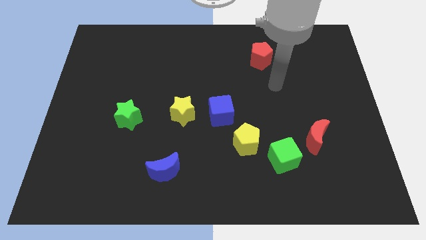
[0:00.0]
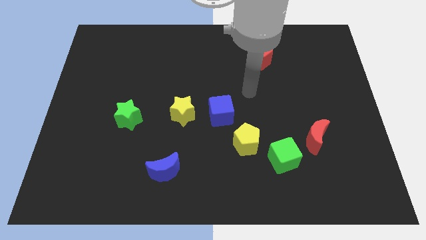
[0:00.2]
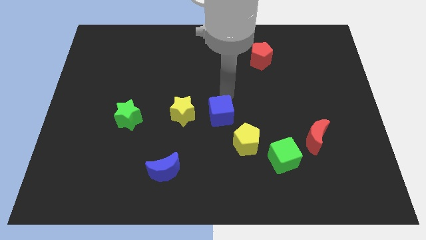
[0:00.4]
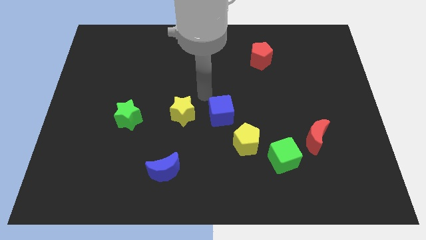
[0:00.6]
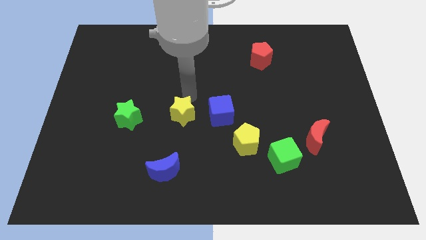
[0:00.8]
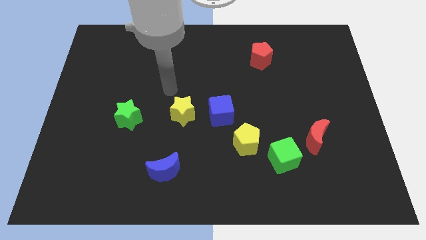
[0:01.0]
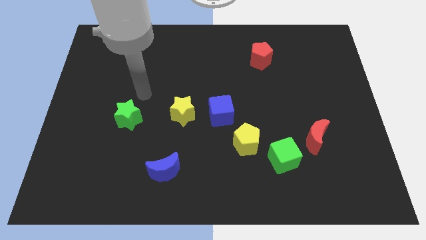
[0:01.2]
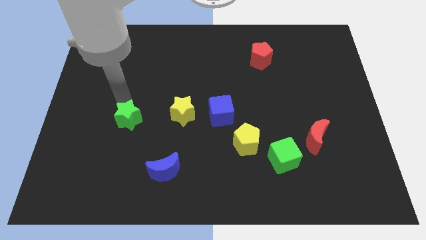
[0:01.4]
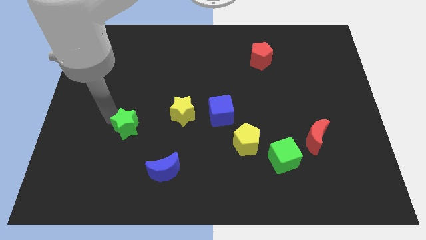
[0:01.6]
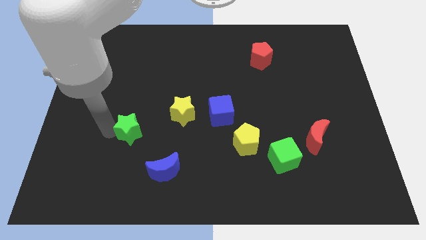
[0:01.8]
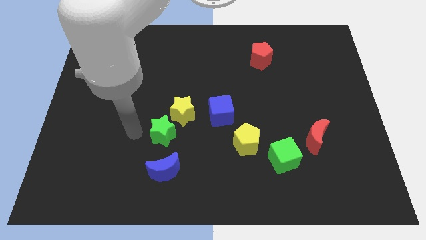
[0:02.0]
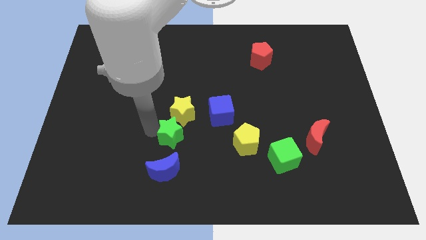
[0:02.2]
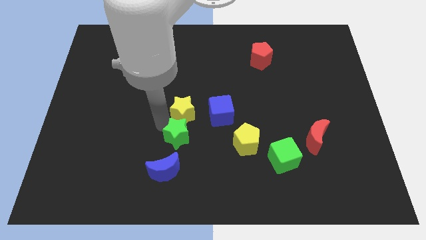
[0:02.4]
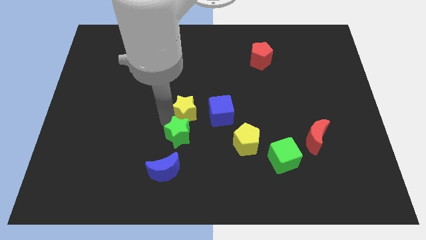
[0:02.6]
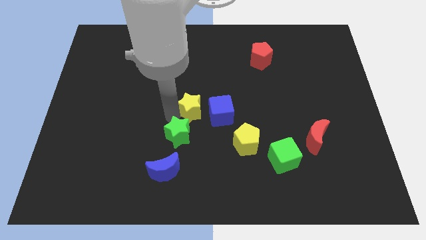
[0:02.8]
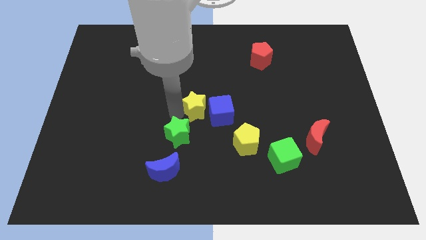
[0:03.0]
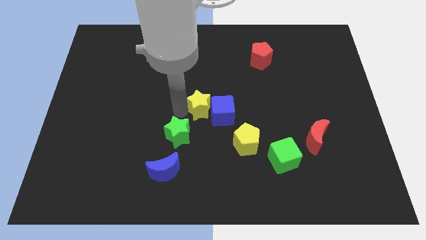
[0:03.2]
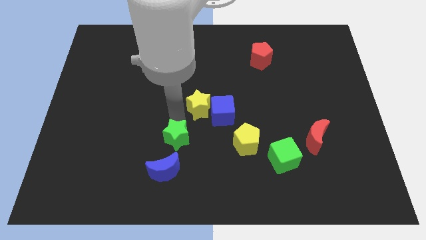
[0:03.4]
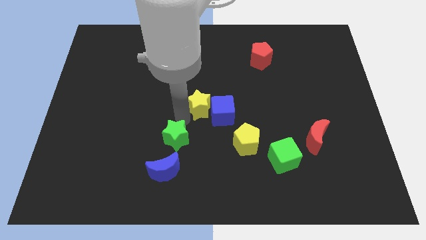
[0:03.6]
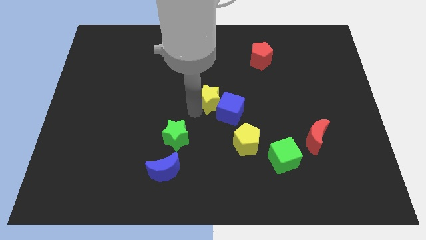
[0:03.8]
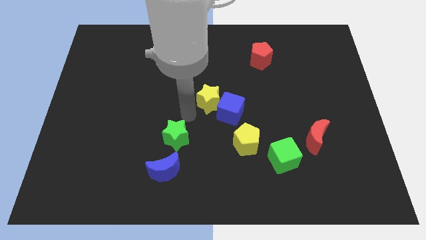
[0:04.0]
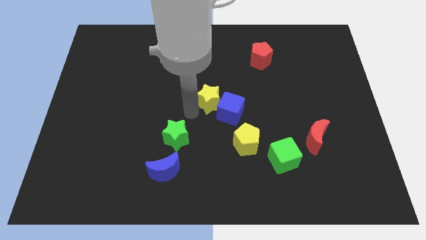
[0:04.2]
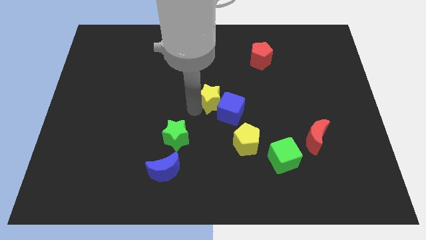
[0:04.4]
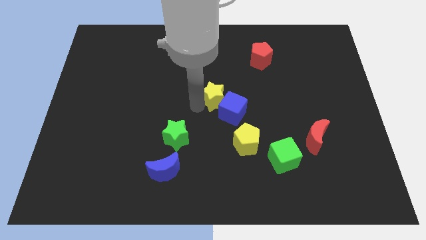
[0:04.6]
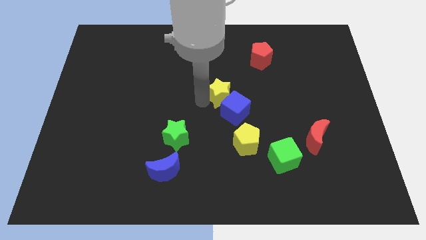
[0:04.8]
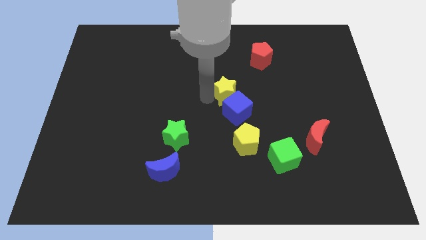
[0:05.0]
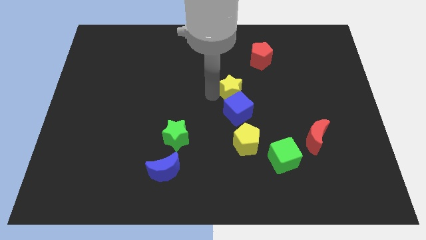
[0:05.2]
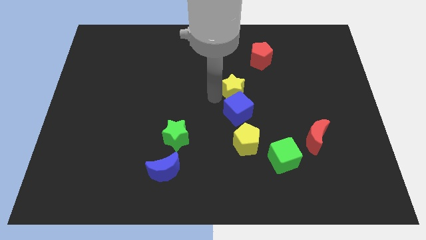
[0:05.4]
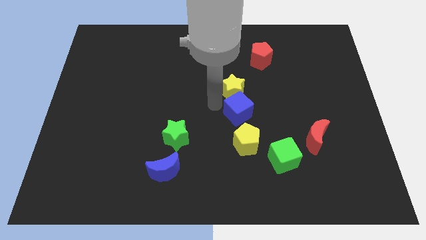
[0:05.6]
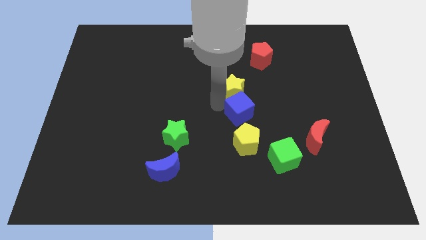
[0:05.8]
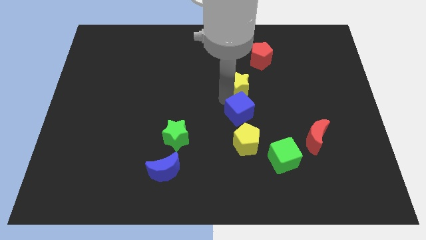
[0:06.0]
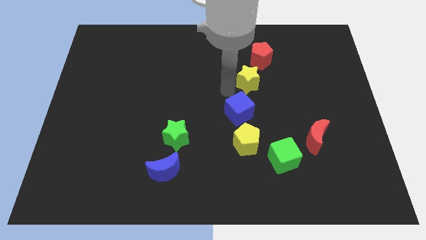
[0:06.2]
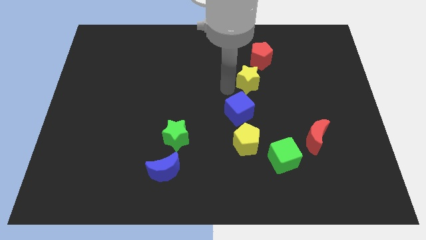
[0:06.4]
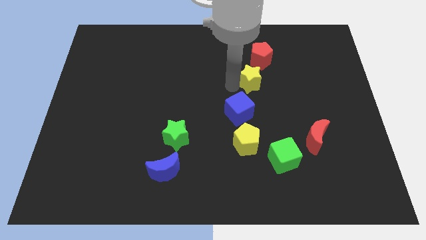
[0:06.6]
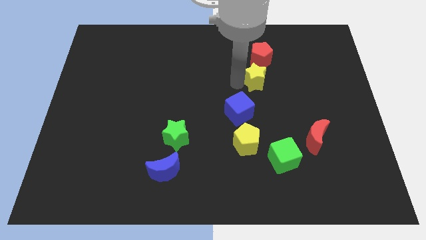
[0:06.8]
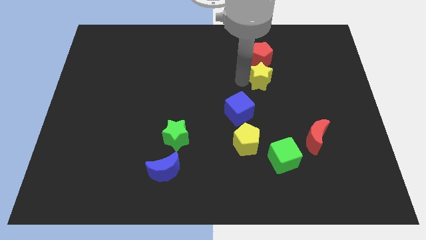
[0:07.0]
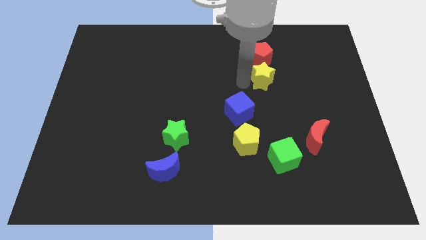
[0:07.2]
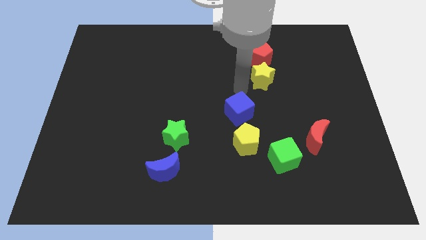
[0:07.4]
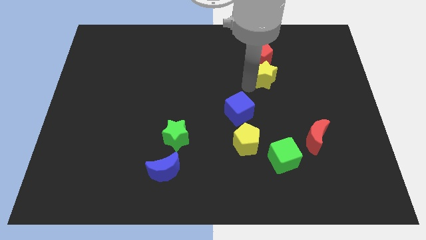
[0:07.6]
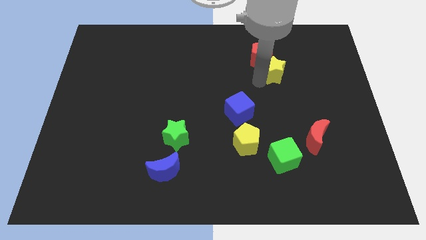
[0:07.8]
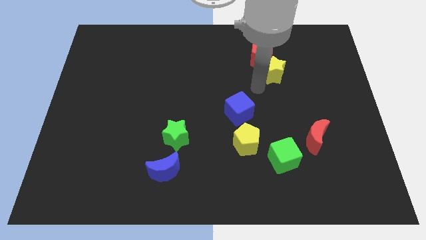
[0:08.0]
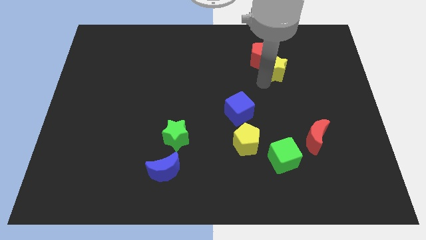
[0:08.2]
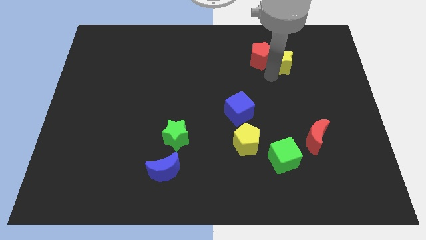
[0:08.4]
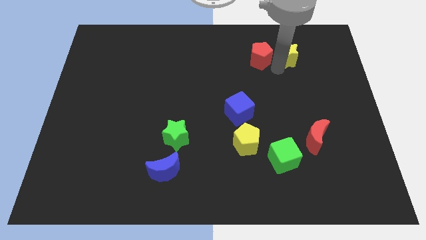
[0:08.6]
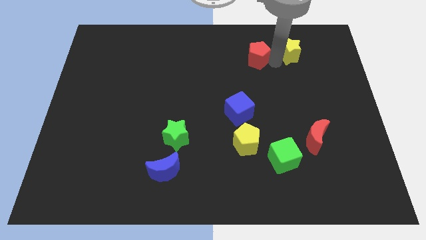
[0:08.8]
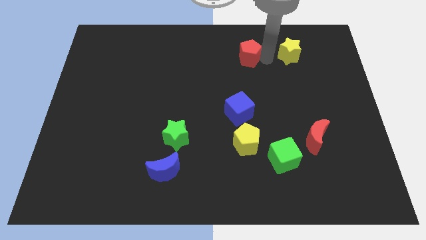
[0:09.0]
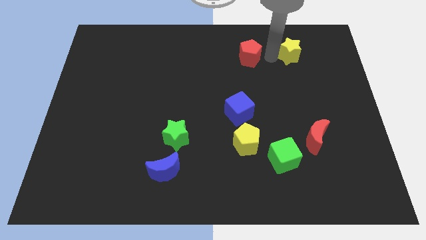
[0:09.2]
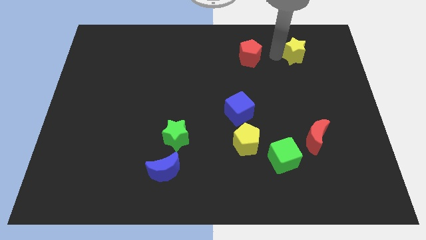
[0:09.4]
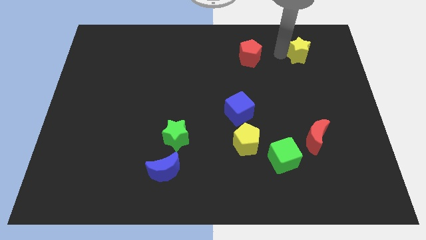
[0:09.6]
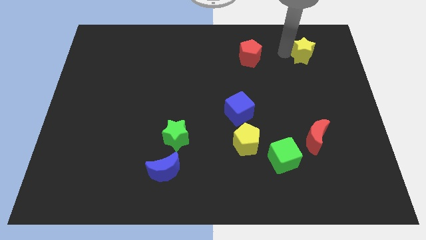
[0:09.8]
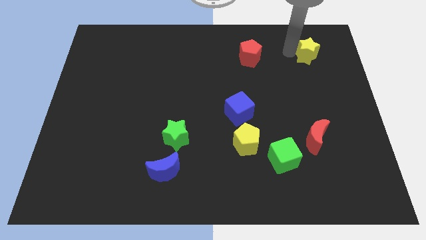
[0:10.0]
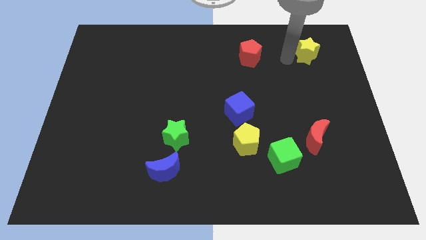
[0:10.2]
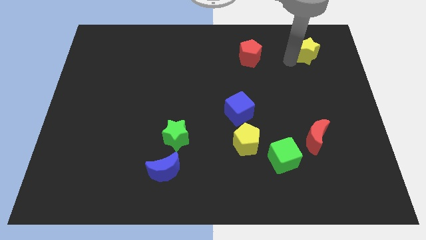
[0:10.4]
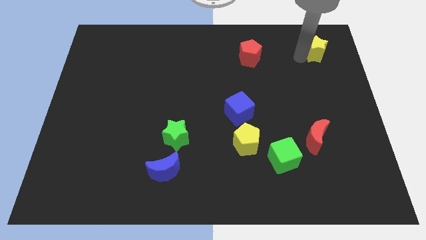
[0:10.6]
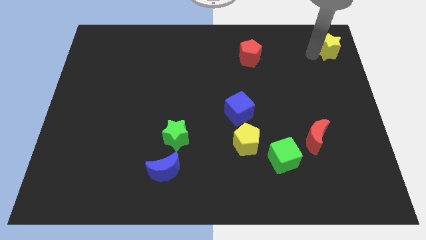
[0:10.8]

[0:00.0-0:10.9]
move the yellow star to the top right corner

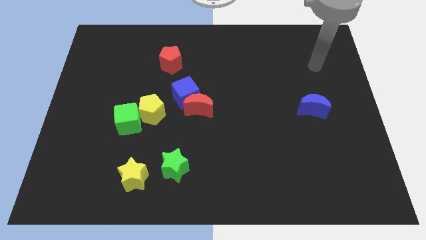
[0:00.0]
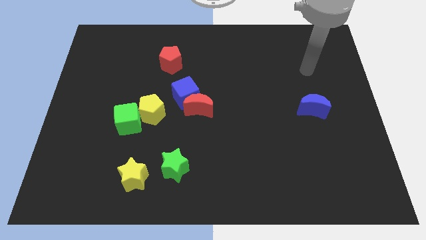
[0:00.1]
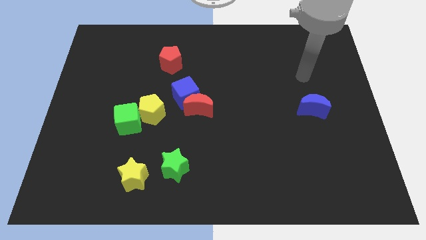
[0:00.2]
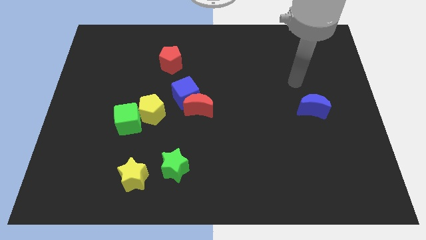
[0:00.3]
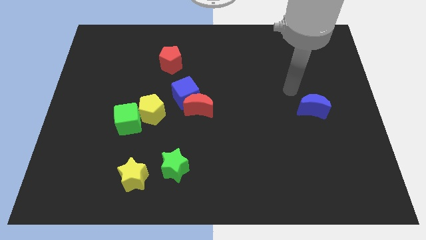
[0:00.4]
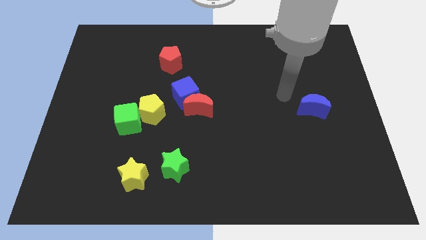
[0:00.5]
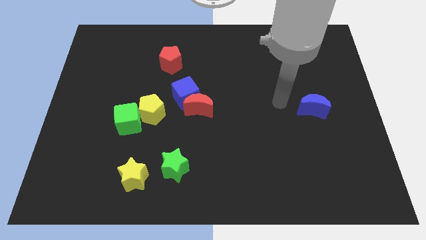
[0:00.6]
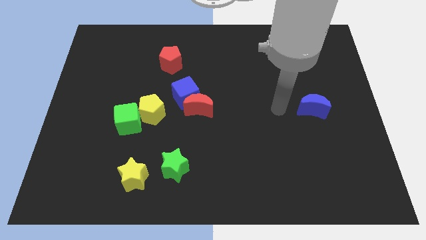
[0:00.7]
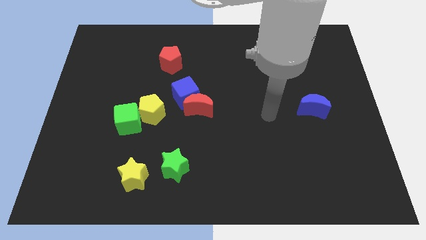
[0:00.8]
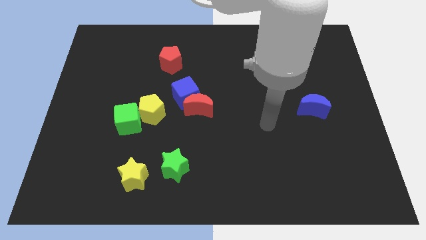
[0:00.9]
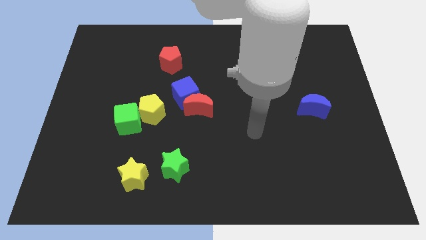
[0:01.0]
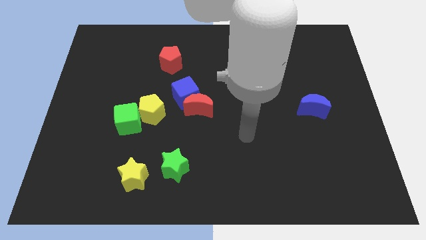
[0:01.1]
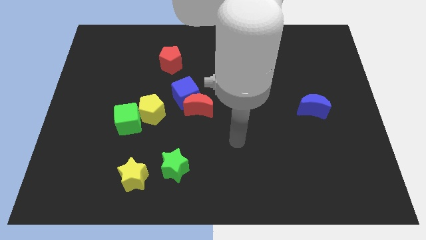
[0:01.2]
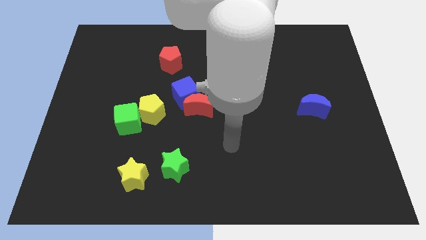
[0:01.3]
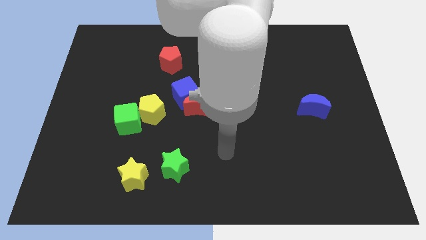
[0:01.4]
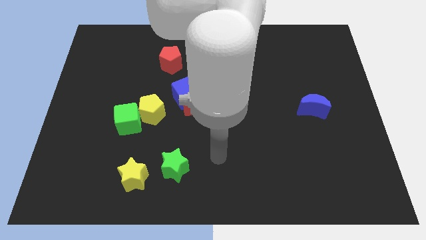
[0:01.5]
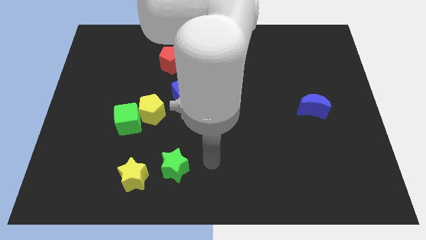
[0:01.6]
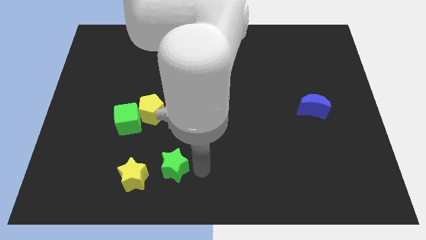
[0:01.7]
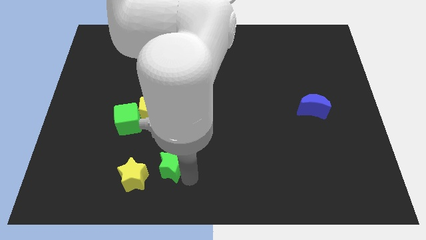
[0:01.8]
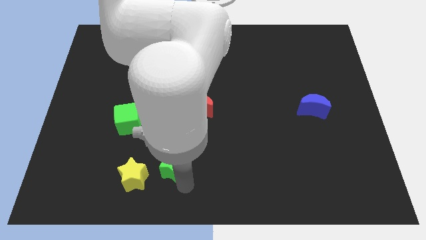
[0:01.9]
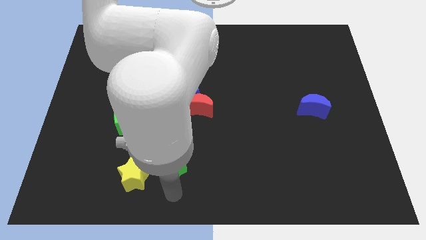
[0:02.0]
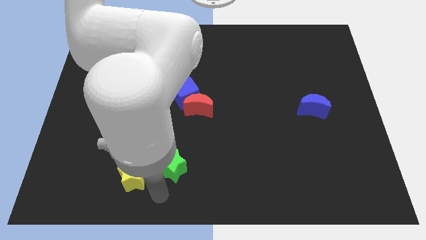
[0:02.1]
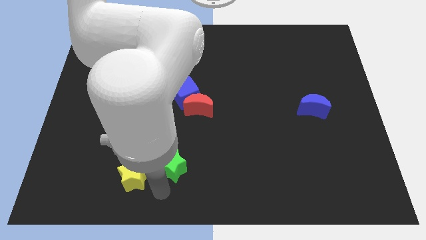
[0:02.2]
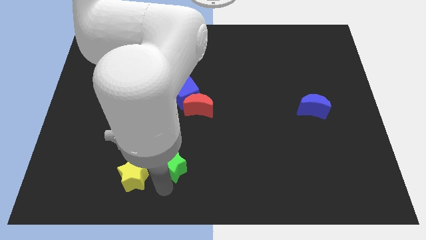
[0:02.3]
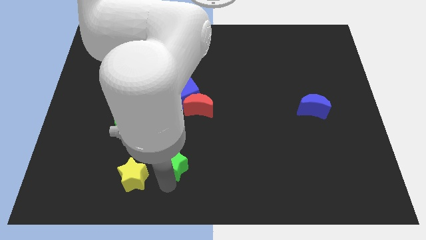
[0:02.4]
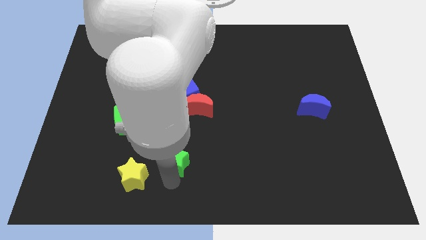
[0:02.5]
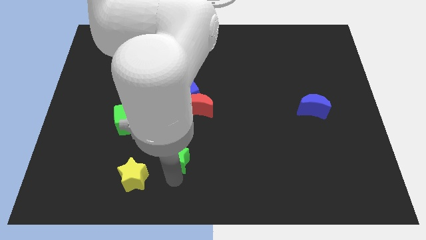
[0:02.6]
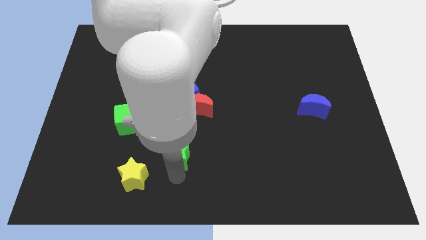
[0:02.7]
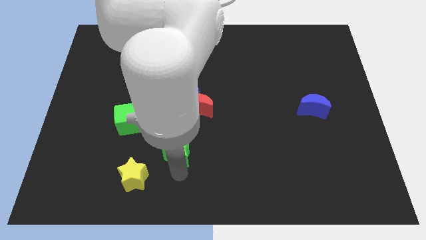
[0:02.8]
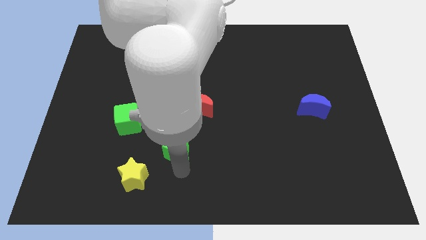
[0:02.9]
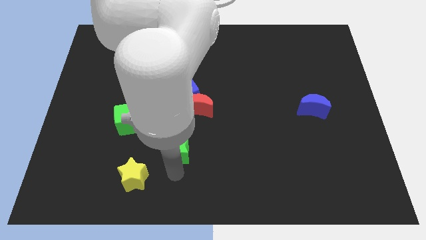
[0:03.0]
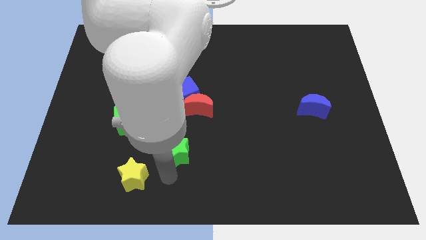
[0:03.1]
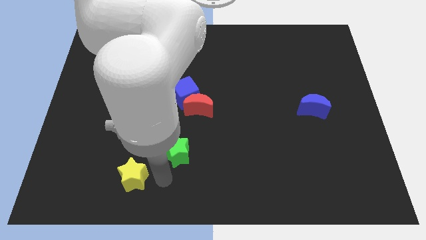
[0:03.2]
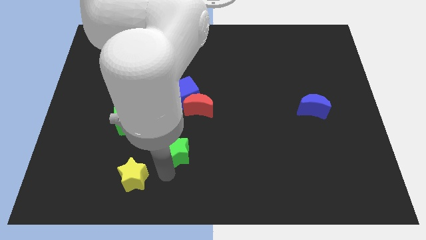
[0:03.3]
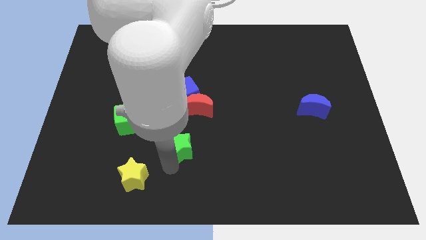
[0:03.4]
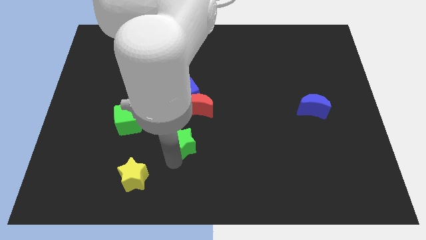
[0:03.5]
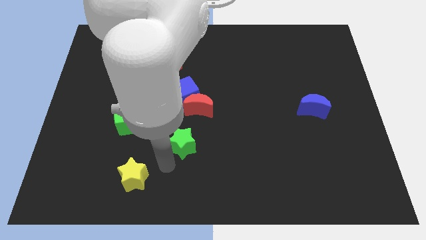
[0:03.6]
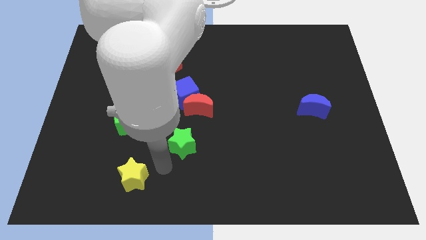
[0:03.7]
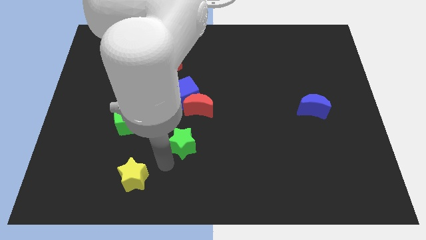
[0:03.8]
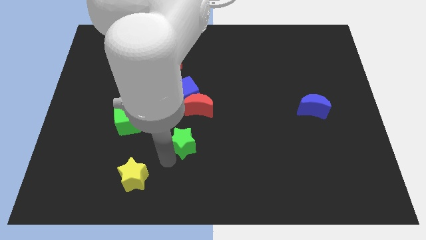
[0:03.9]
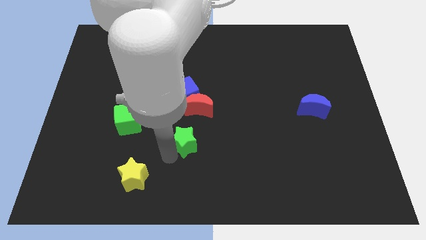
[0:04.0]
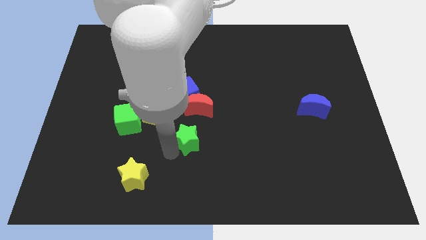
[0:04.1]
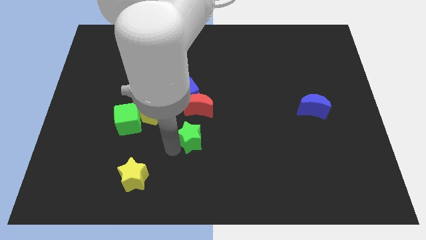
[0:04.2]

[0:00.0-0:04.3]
put the green star to the middle of the board
